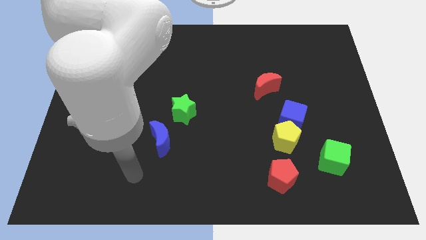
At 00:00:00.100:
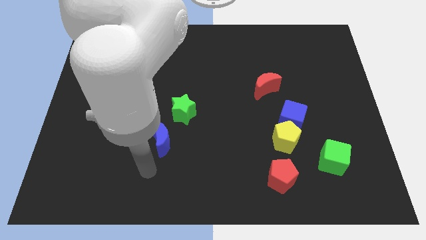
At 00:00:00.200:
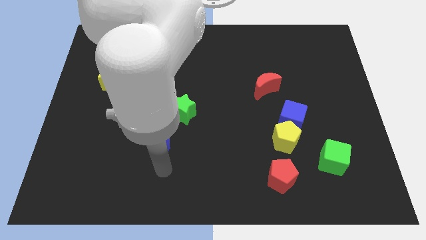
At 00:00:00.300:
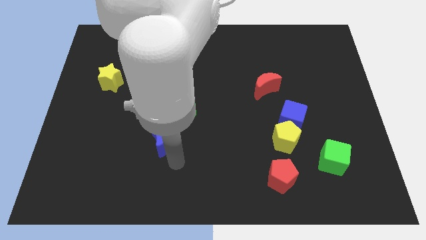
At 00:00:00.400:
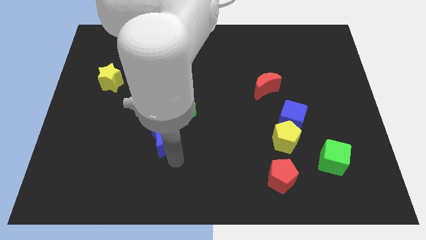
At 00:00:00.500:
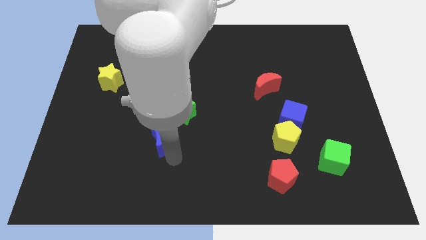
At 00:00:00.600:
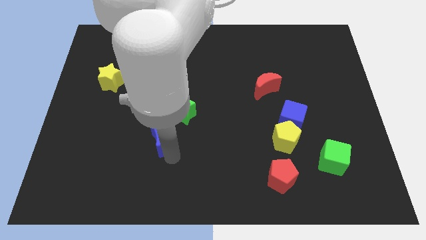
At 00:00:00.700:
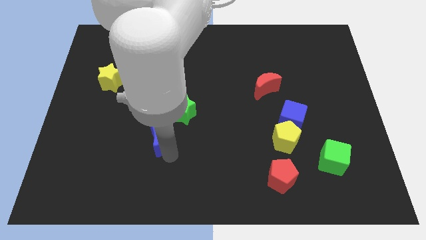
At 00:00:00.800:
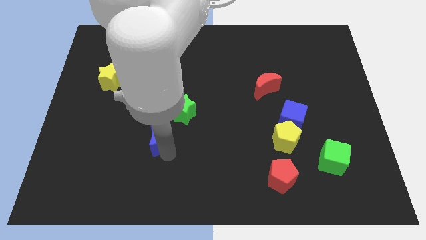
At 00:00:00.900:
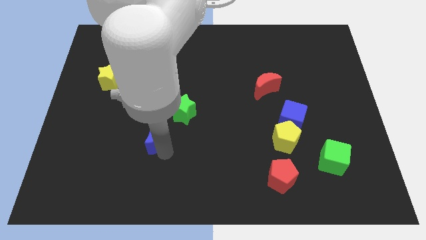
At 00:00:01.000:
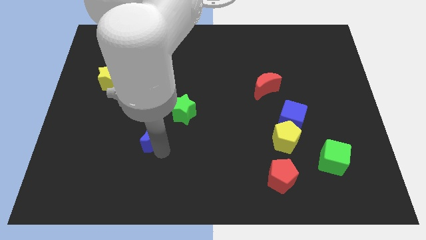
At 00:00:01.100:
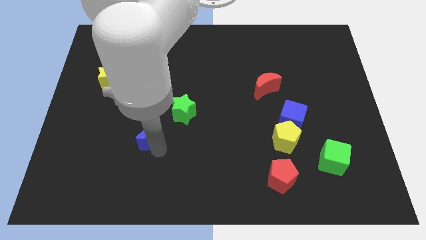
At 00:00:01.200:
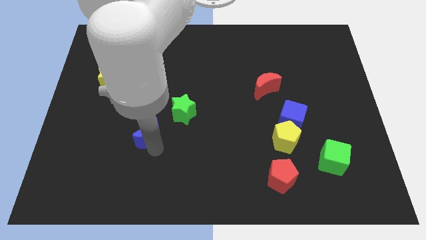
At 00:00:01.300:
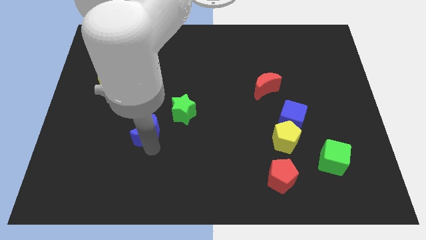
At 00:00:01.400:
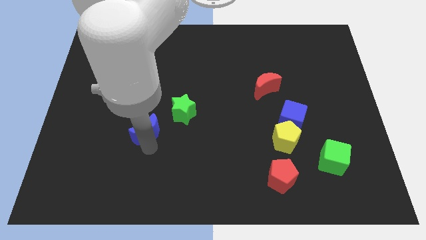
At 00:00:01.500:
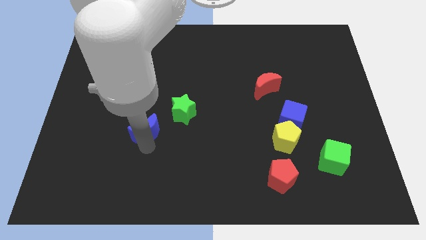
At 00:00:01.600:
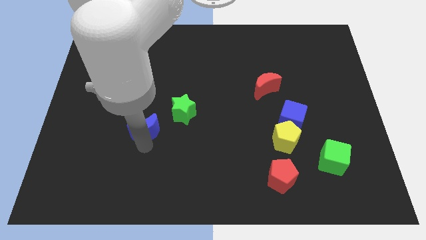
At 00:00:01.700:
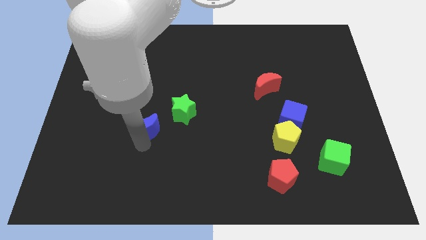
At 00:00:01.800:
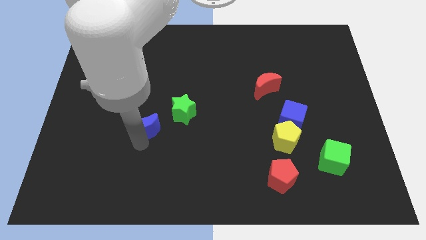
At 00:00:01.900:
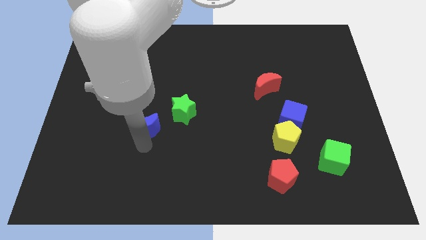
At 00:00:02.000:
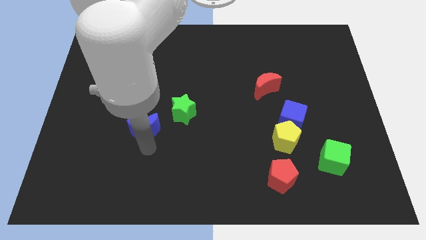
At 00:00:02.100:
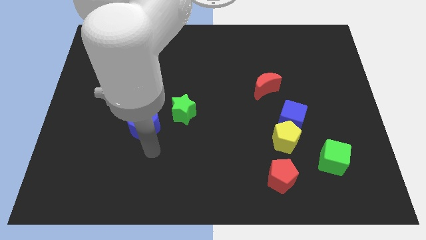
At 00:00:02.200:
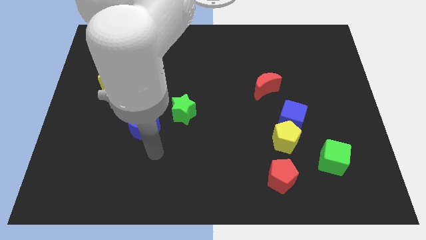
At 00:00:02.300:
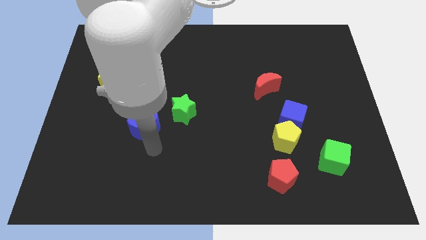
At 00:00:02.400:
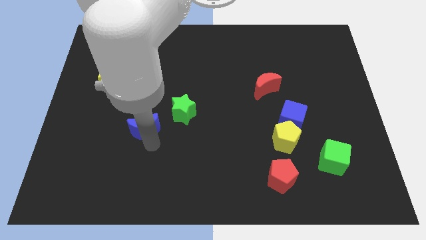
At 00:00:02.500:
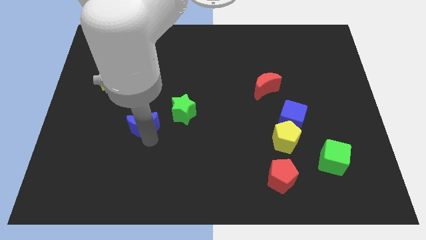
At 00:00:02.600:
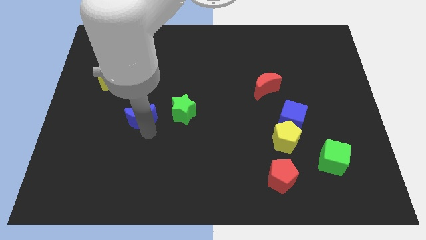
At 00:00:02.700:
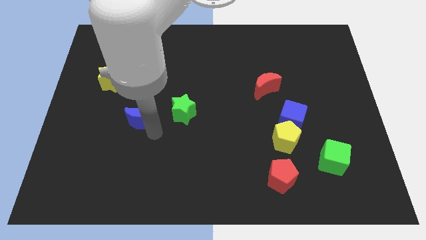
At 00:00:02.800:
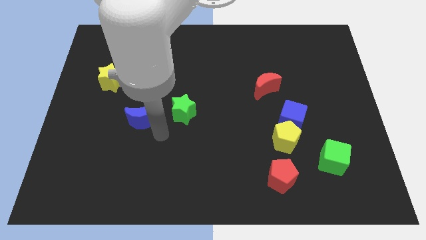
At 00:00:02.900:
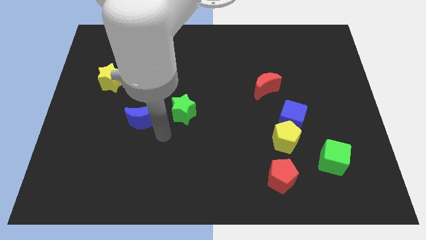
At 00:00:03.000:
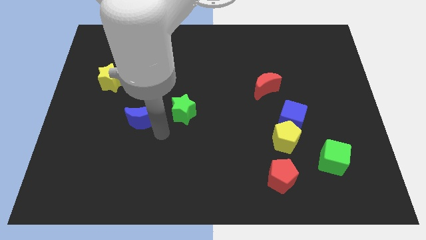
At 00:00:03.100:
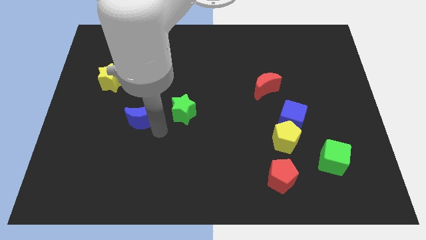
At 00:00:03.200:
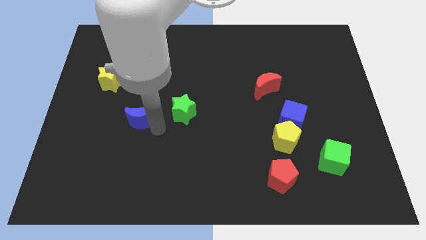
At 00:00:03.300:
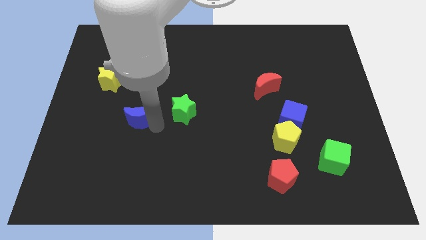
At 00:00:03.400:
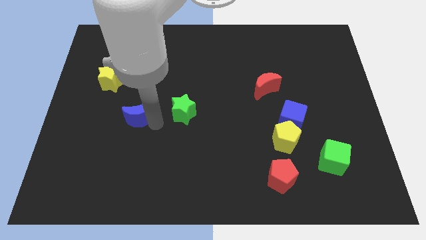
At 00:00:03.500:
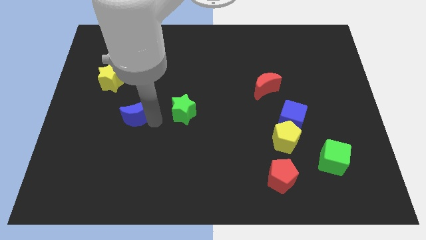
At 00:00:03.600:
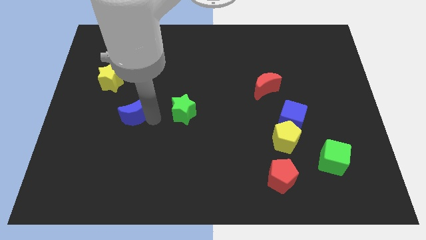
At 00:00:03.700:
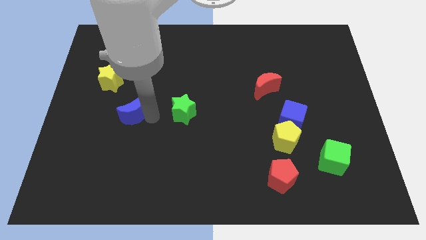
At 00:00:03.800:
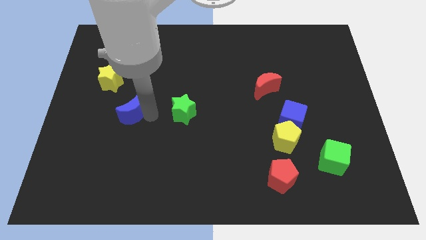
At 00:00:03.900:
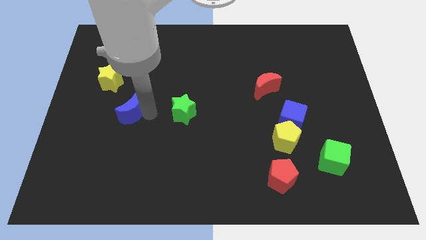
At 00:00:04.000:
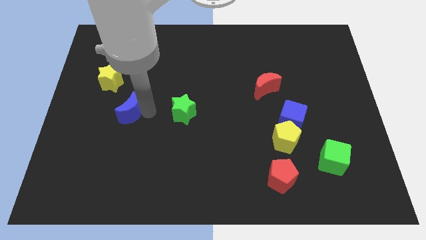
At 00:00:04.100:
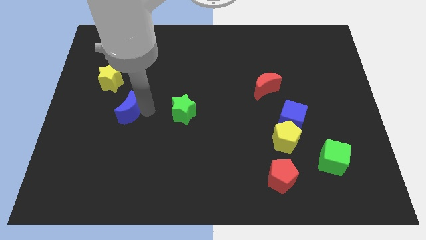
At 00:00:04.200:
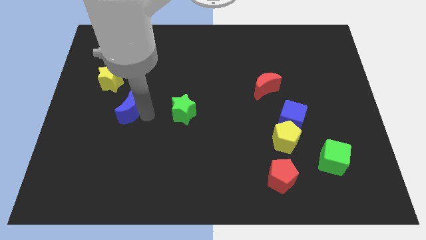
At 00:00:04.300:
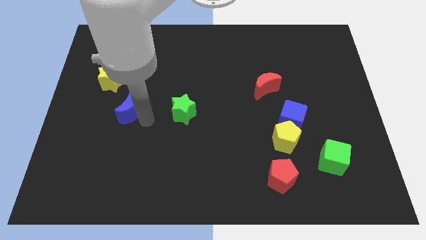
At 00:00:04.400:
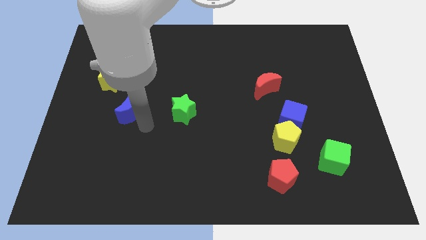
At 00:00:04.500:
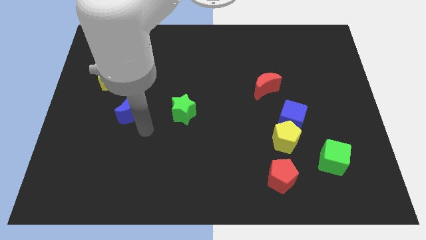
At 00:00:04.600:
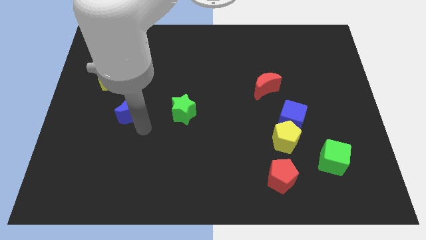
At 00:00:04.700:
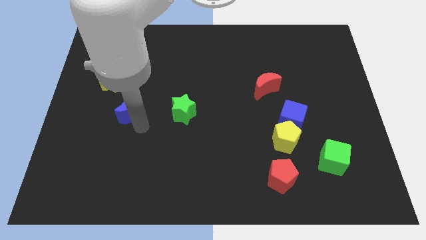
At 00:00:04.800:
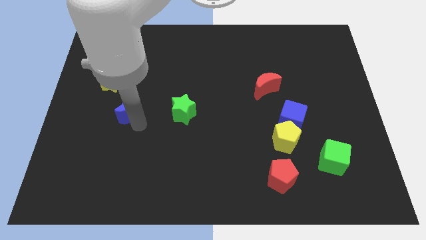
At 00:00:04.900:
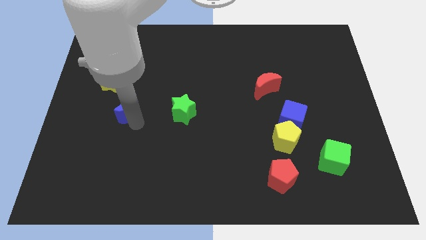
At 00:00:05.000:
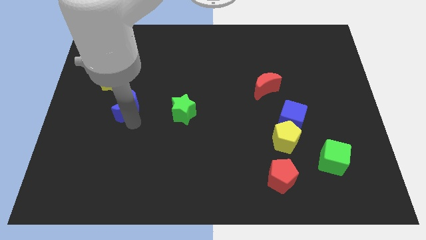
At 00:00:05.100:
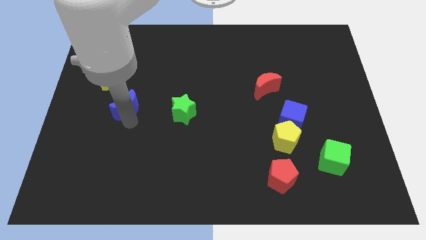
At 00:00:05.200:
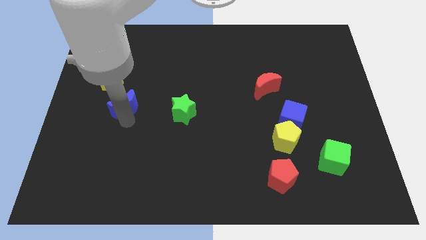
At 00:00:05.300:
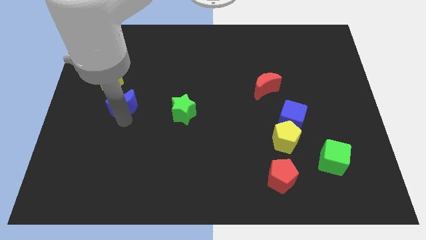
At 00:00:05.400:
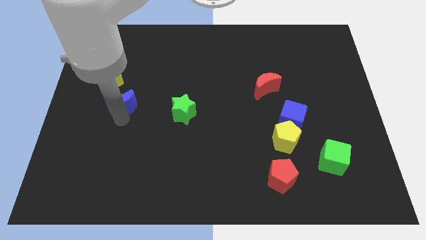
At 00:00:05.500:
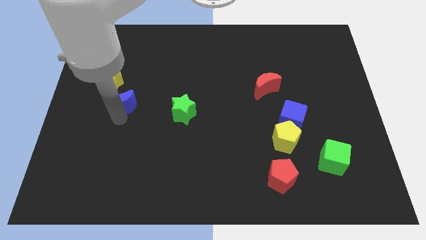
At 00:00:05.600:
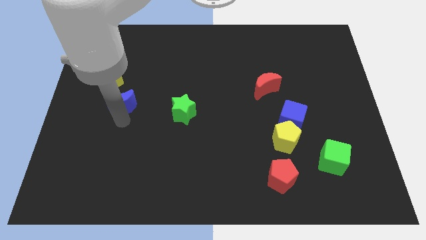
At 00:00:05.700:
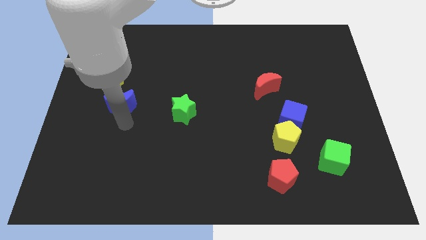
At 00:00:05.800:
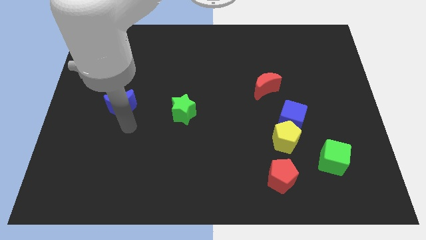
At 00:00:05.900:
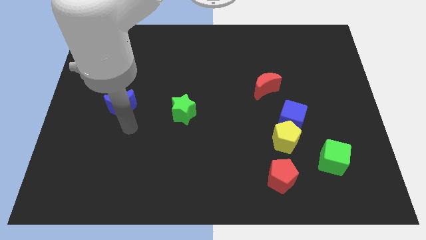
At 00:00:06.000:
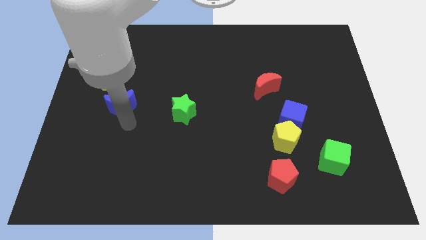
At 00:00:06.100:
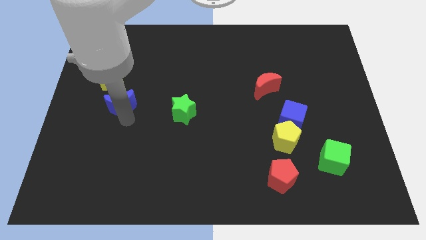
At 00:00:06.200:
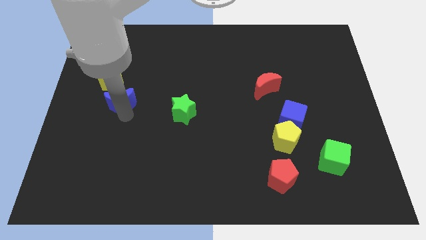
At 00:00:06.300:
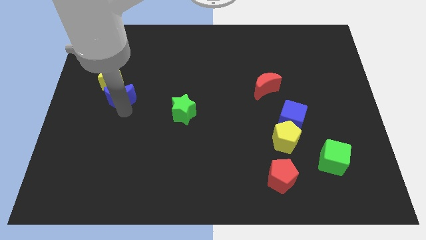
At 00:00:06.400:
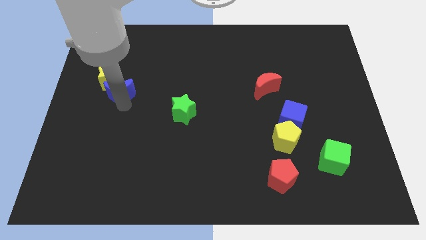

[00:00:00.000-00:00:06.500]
slide the blue moon to the yellow star

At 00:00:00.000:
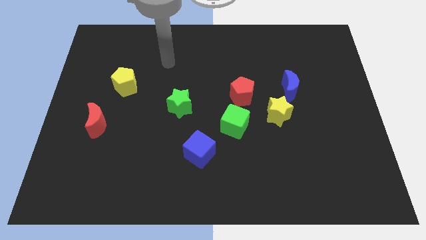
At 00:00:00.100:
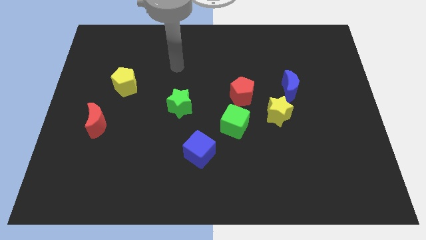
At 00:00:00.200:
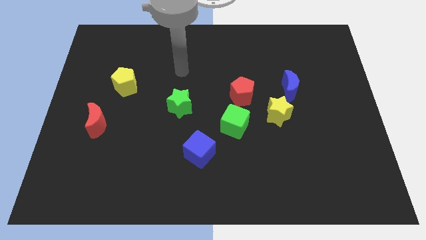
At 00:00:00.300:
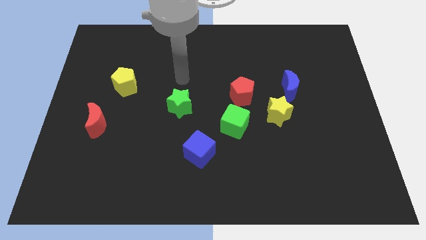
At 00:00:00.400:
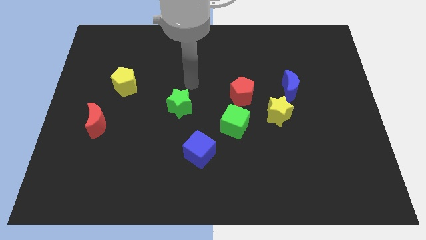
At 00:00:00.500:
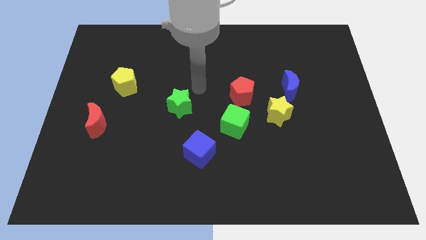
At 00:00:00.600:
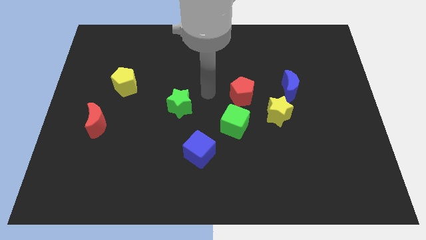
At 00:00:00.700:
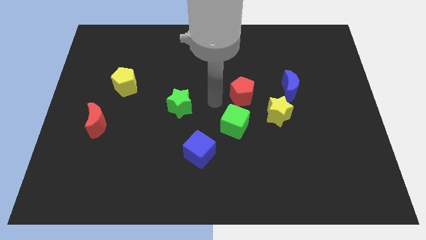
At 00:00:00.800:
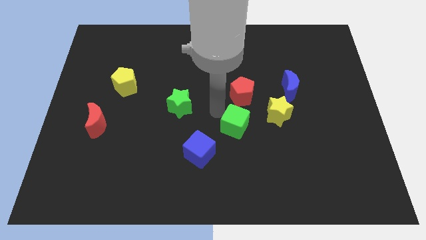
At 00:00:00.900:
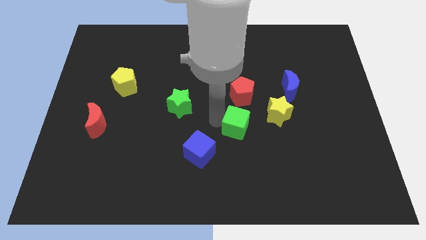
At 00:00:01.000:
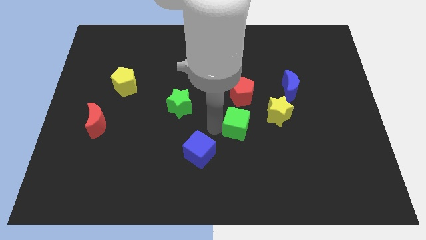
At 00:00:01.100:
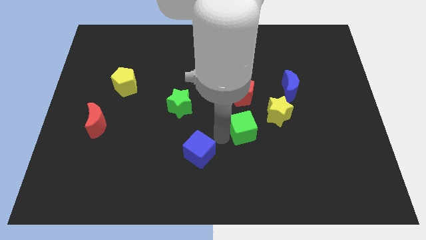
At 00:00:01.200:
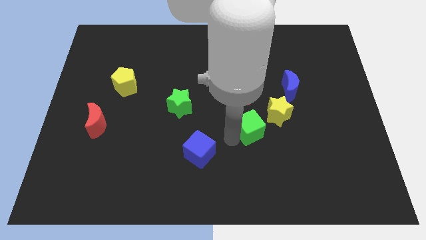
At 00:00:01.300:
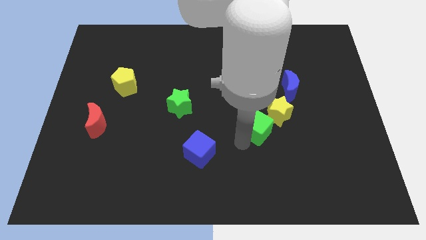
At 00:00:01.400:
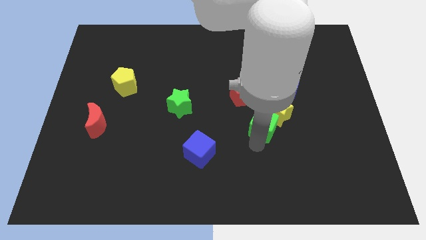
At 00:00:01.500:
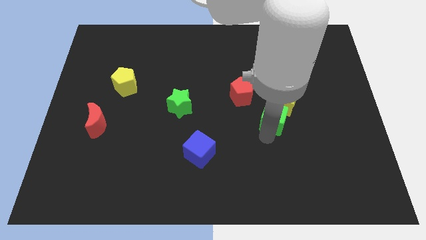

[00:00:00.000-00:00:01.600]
move the yellow star next to the blue moon
